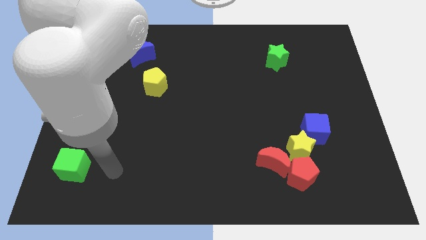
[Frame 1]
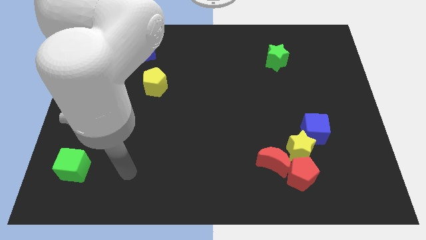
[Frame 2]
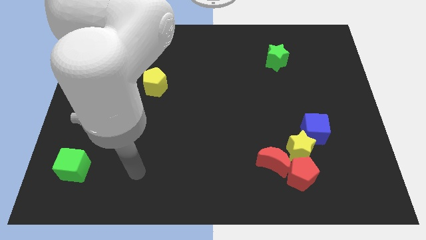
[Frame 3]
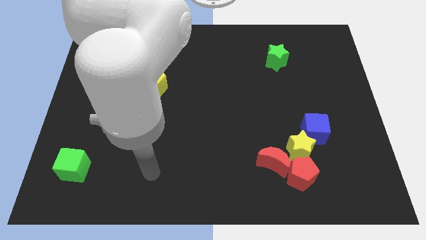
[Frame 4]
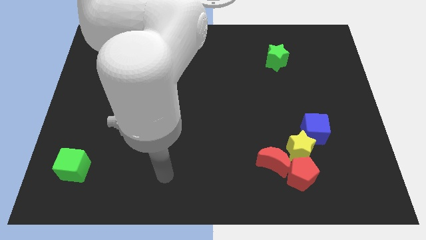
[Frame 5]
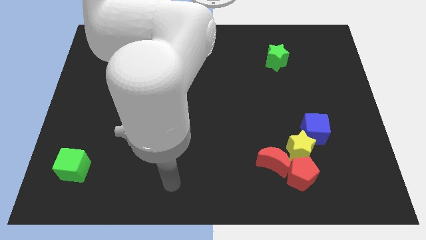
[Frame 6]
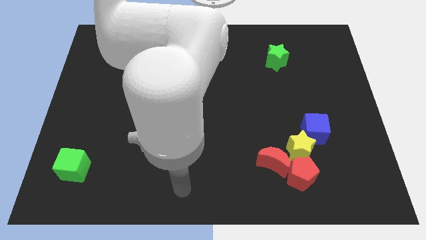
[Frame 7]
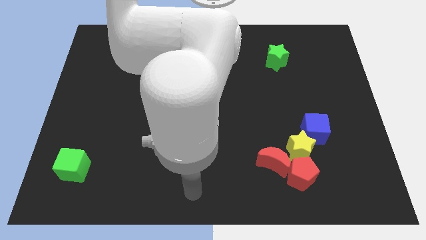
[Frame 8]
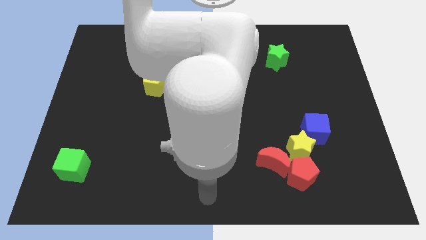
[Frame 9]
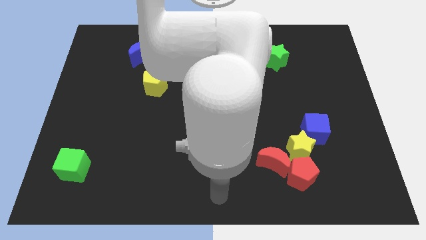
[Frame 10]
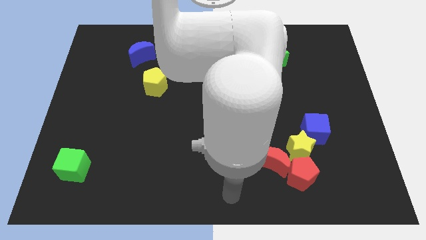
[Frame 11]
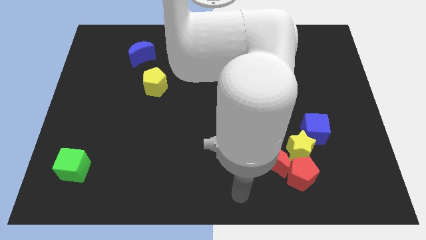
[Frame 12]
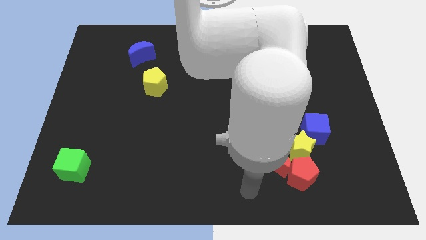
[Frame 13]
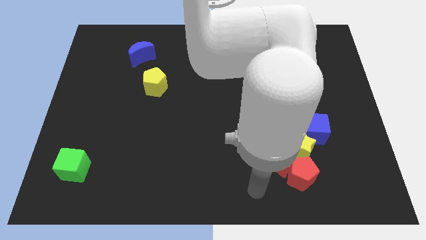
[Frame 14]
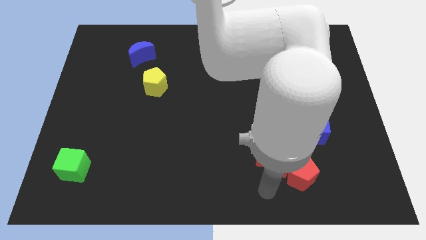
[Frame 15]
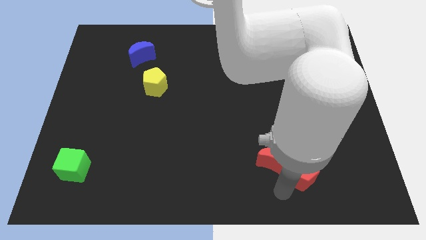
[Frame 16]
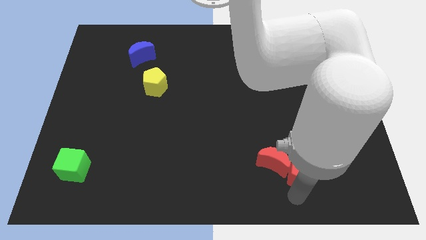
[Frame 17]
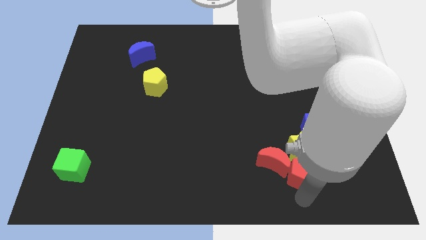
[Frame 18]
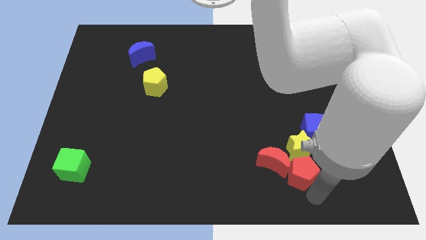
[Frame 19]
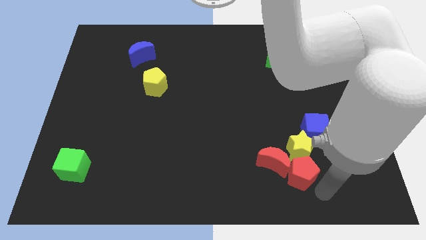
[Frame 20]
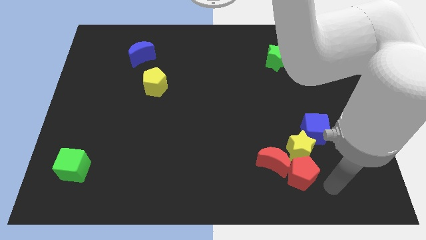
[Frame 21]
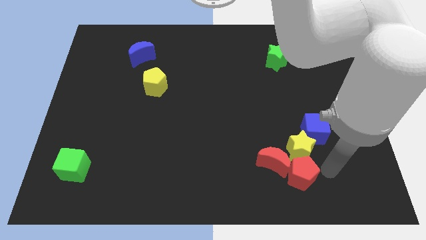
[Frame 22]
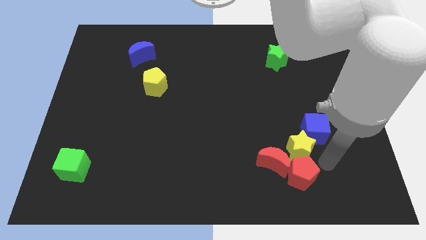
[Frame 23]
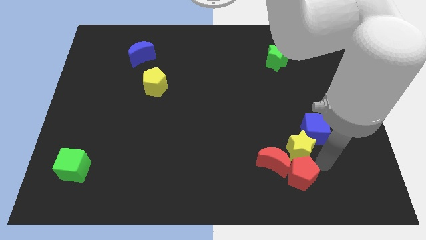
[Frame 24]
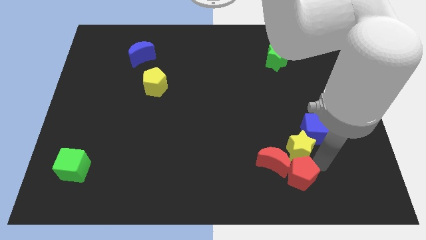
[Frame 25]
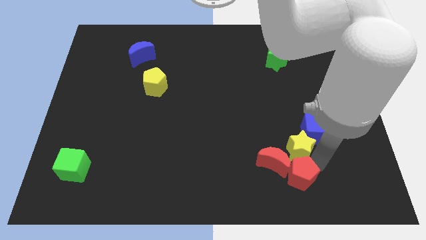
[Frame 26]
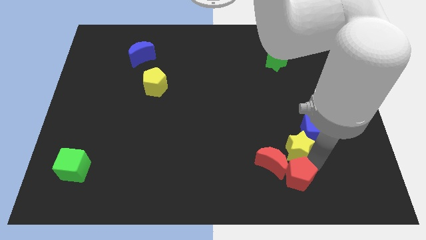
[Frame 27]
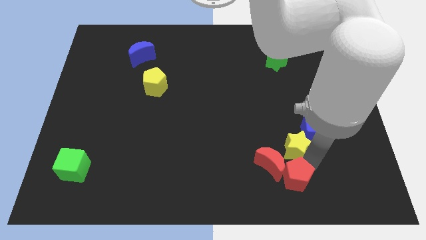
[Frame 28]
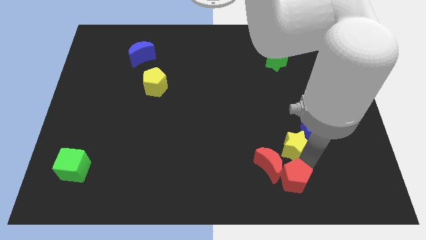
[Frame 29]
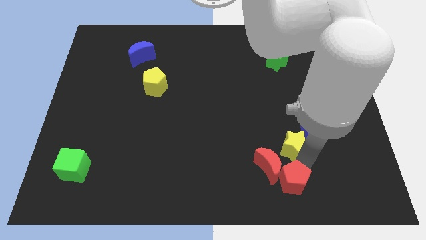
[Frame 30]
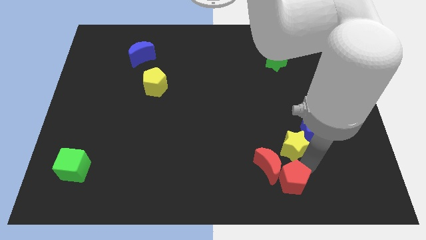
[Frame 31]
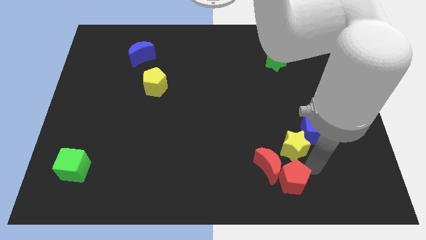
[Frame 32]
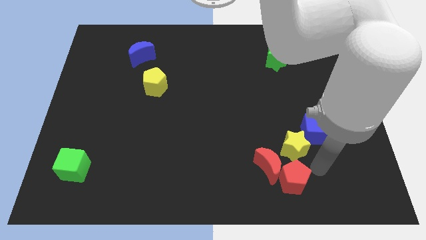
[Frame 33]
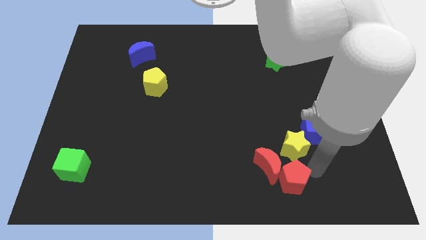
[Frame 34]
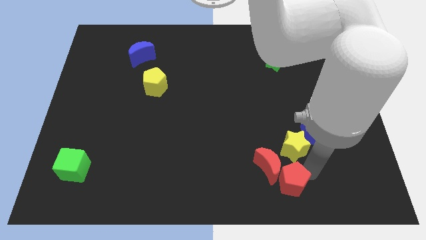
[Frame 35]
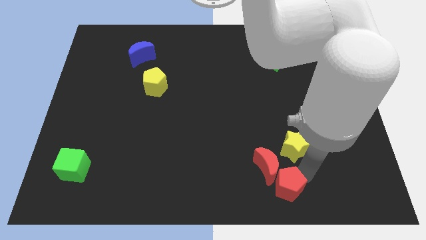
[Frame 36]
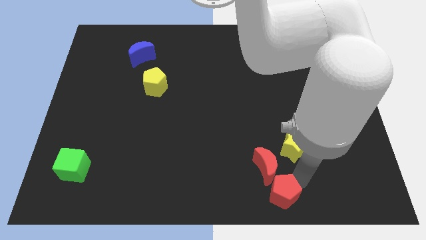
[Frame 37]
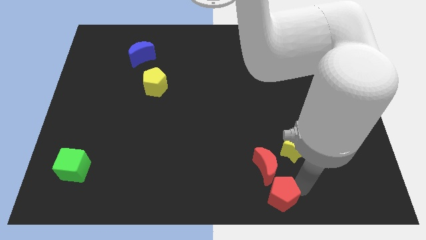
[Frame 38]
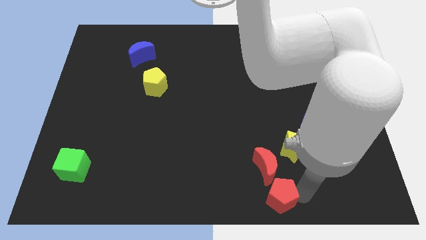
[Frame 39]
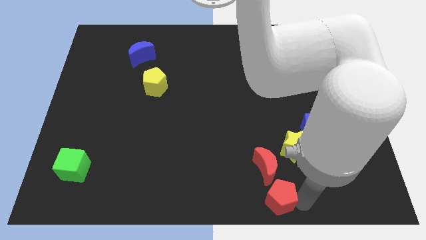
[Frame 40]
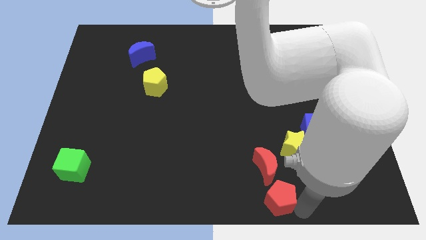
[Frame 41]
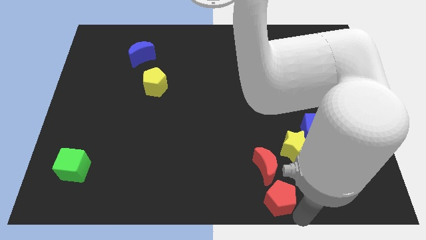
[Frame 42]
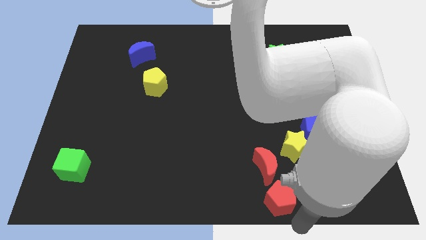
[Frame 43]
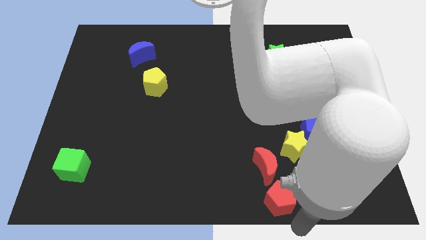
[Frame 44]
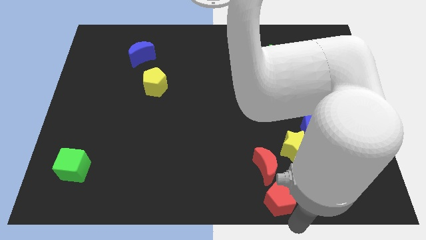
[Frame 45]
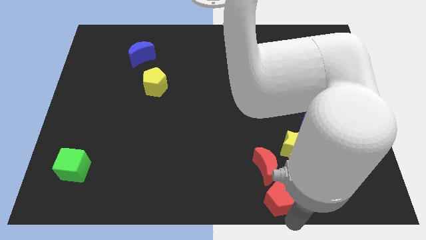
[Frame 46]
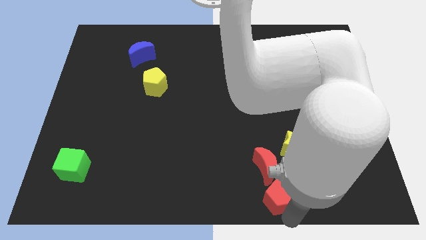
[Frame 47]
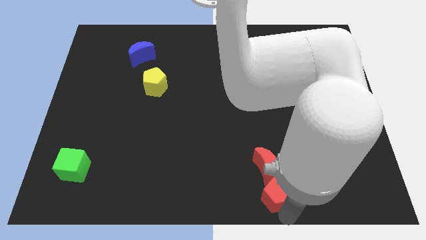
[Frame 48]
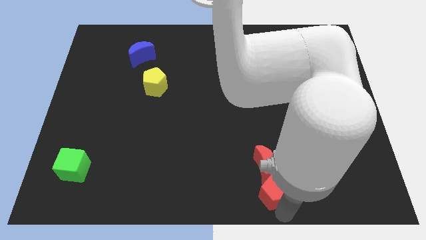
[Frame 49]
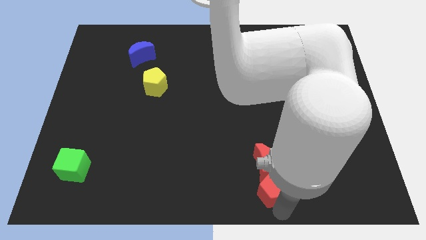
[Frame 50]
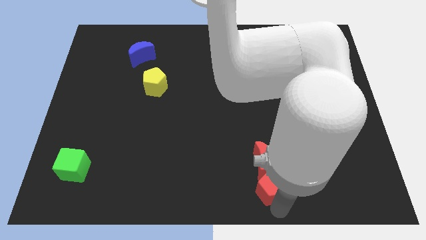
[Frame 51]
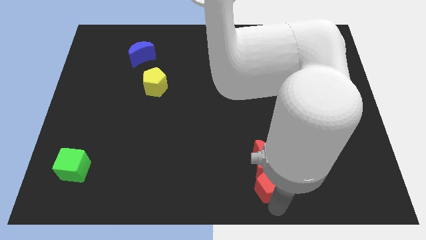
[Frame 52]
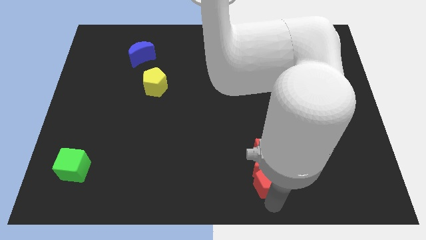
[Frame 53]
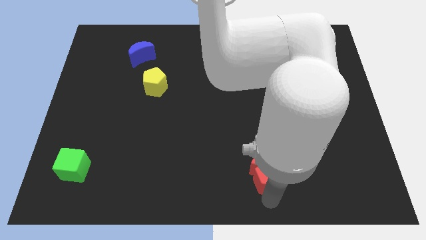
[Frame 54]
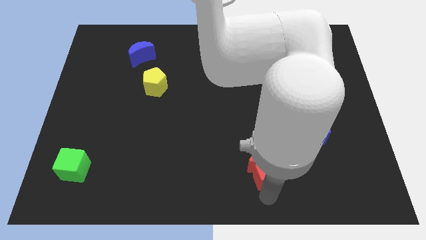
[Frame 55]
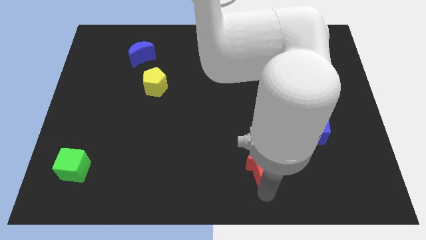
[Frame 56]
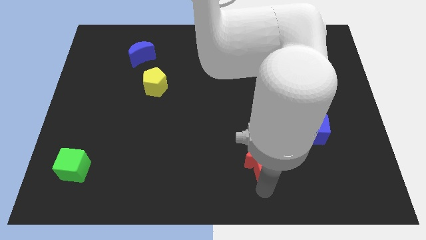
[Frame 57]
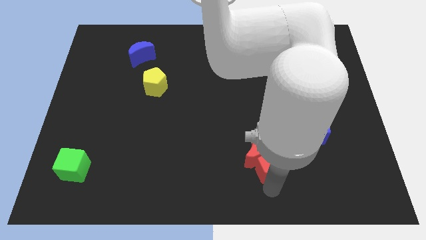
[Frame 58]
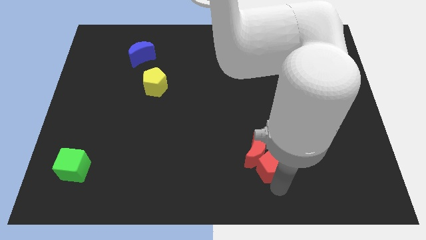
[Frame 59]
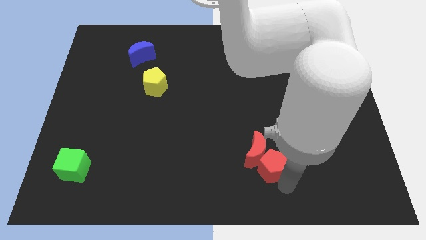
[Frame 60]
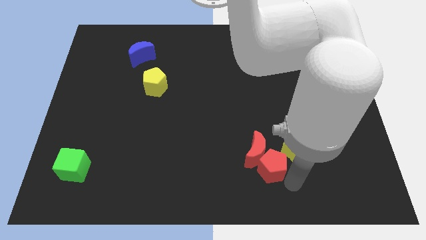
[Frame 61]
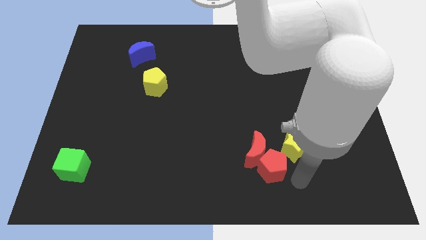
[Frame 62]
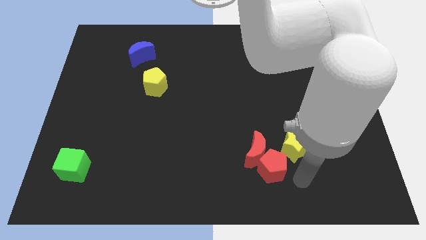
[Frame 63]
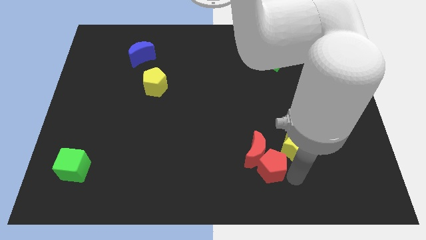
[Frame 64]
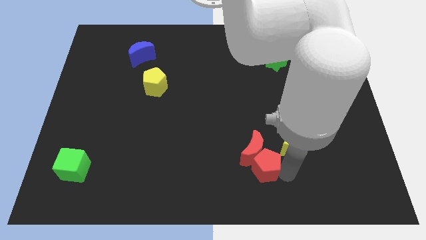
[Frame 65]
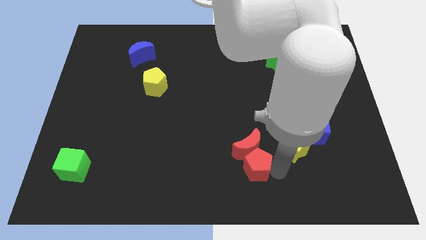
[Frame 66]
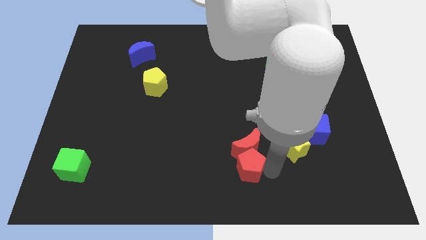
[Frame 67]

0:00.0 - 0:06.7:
slightly push the red pentagon up and to the left

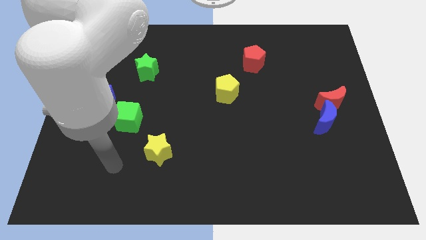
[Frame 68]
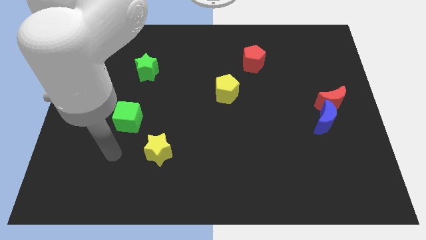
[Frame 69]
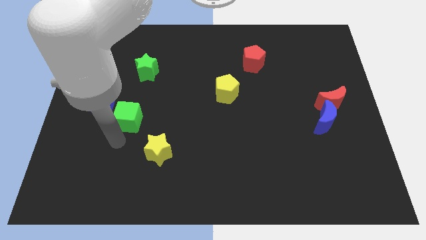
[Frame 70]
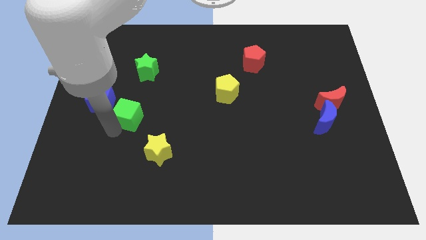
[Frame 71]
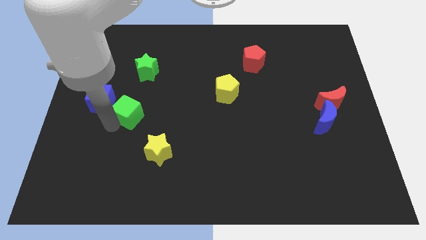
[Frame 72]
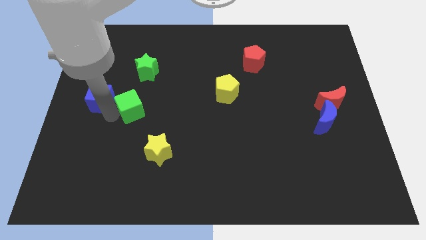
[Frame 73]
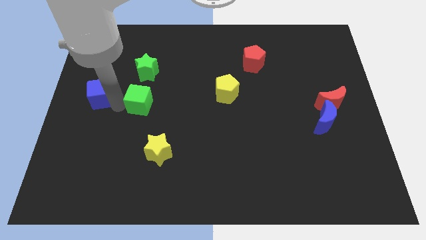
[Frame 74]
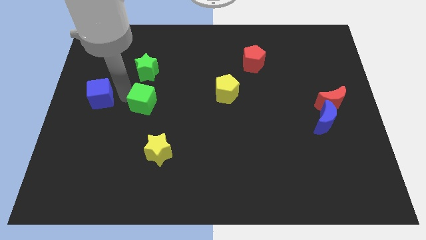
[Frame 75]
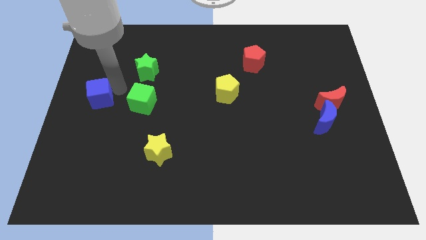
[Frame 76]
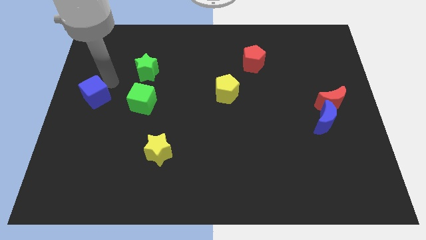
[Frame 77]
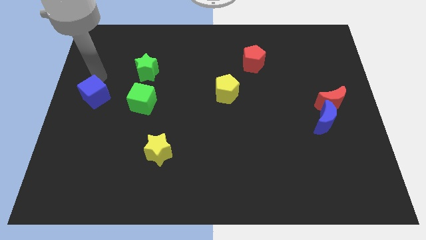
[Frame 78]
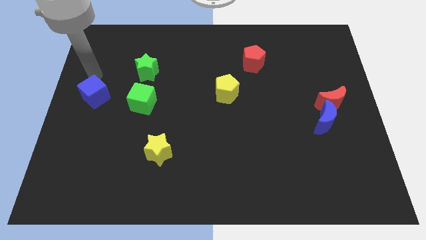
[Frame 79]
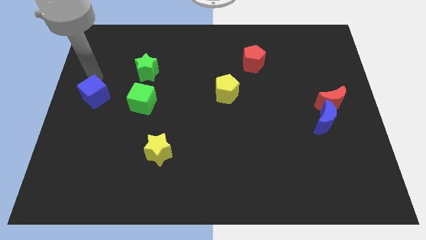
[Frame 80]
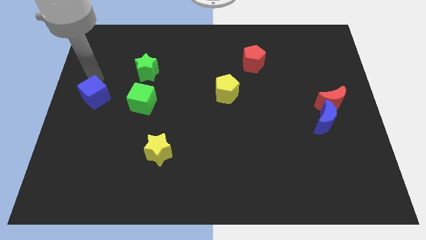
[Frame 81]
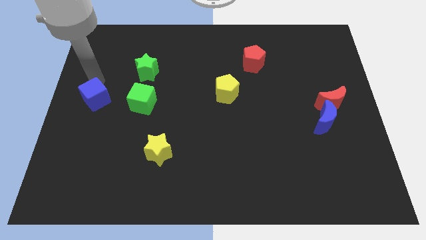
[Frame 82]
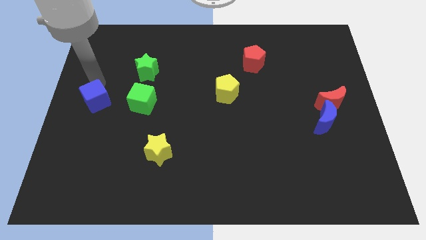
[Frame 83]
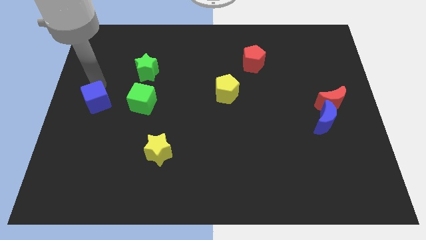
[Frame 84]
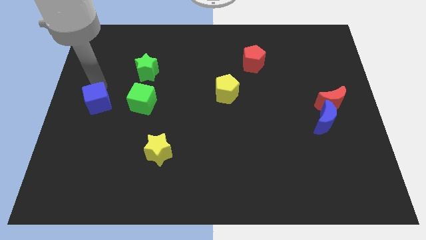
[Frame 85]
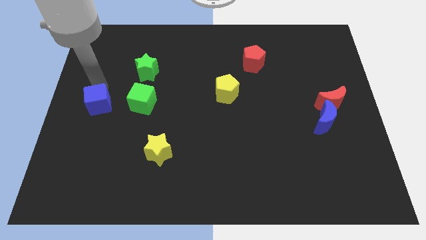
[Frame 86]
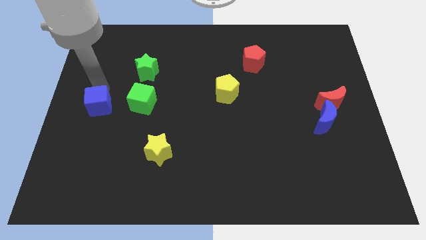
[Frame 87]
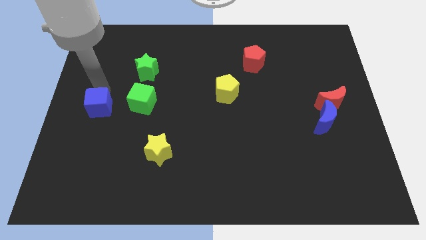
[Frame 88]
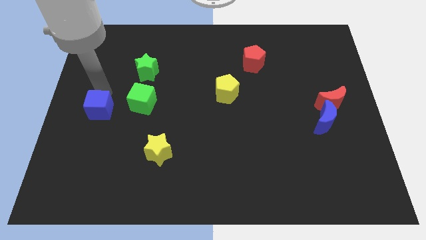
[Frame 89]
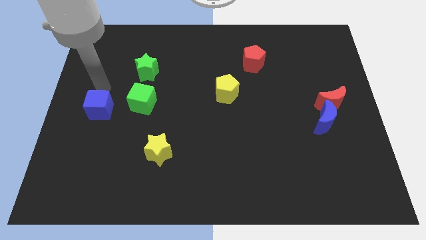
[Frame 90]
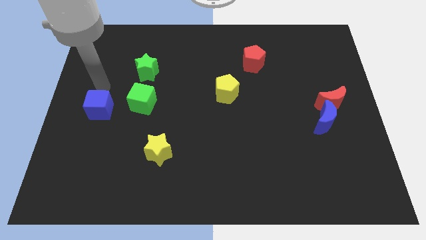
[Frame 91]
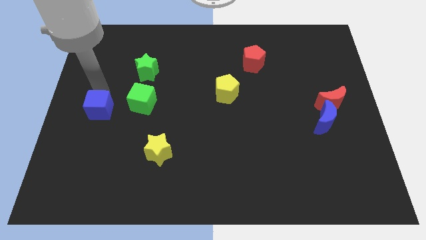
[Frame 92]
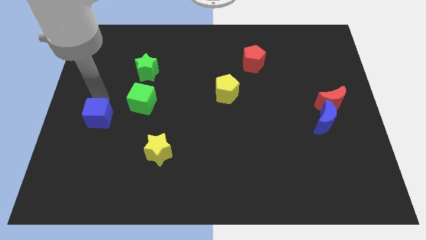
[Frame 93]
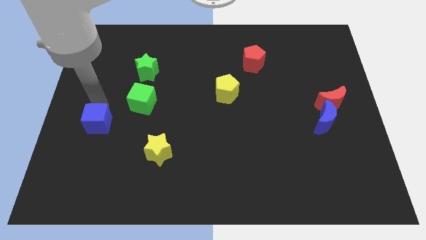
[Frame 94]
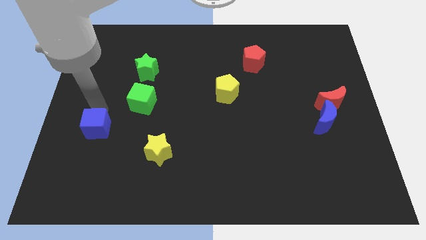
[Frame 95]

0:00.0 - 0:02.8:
move the blue cube downwards slightly
